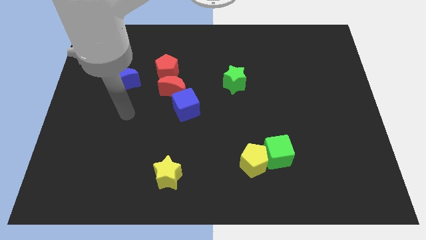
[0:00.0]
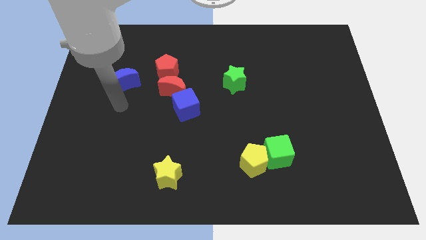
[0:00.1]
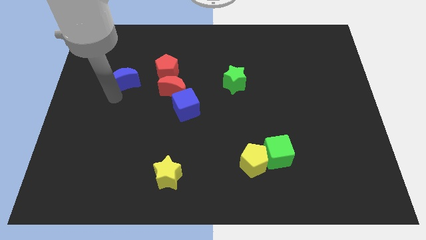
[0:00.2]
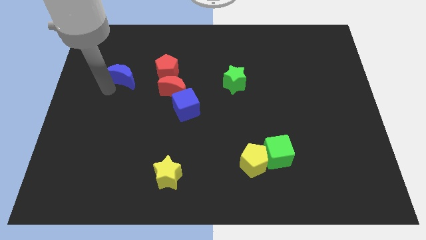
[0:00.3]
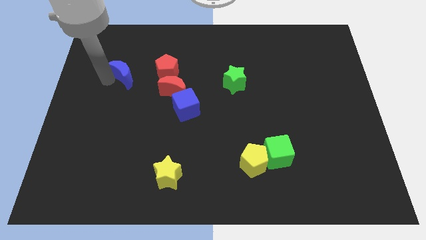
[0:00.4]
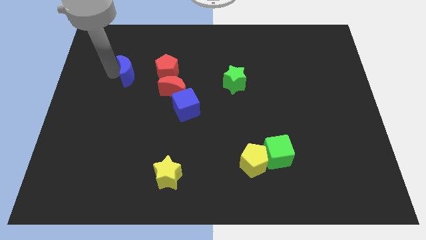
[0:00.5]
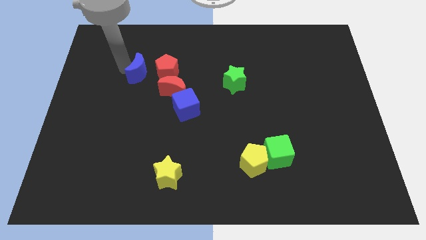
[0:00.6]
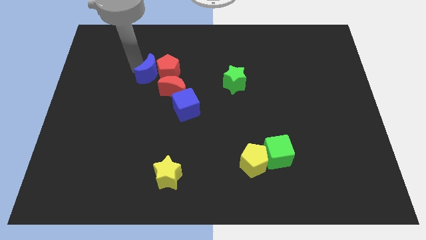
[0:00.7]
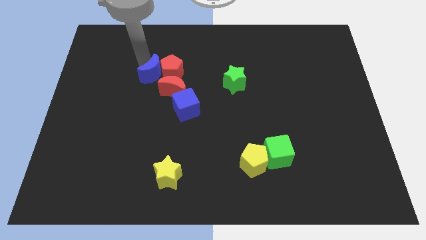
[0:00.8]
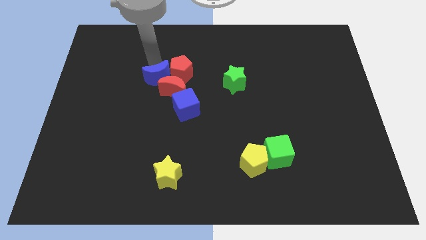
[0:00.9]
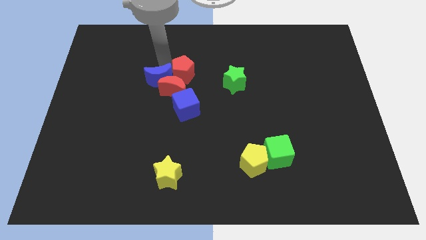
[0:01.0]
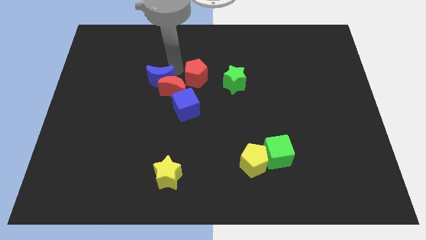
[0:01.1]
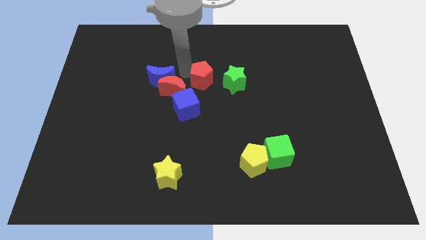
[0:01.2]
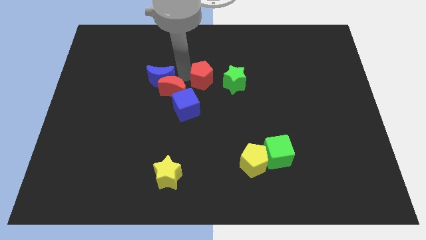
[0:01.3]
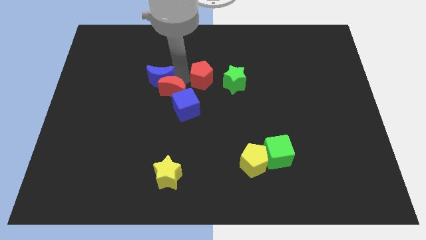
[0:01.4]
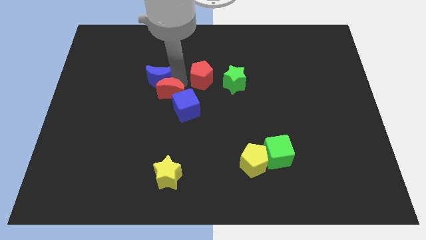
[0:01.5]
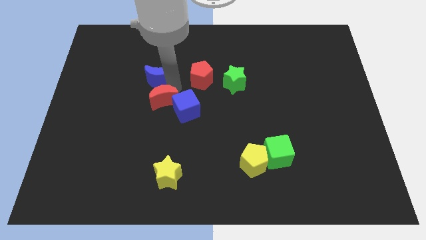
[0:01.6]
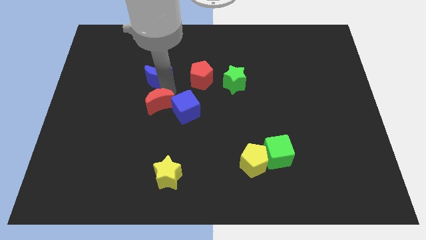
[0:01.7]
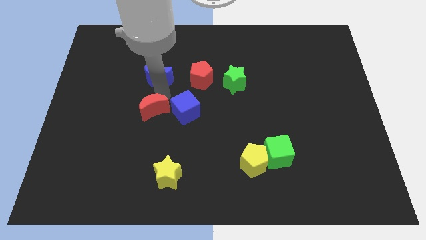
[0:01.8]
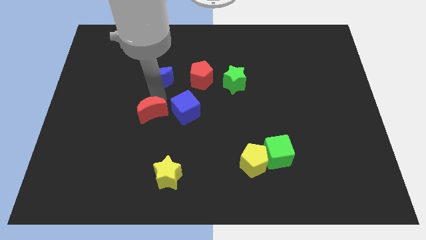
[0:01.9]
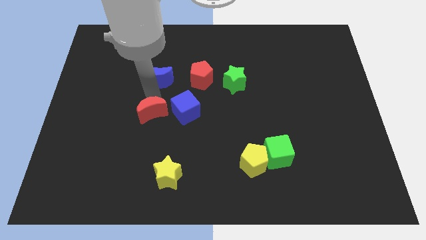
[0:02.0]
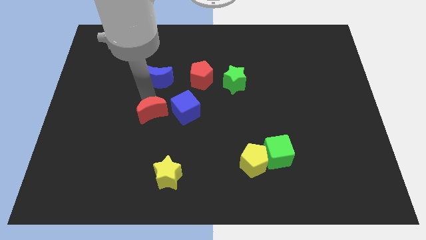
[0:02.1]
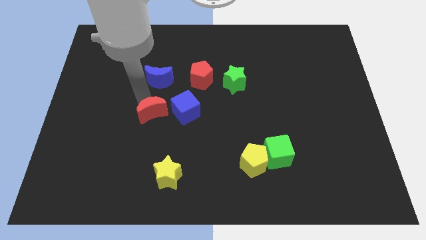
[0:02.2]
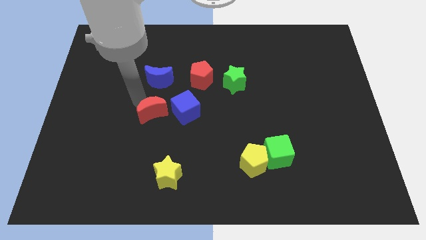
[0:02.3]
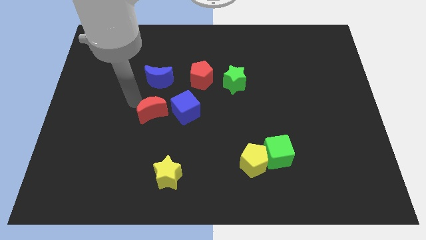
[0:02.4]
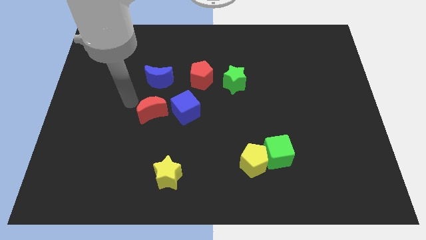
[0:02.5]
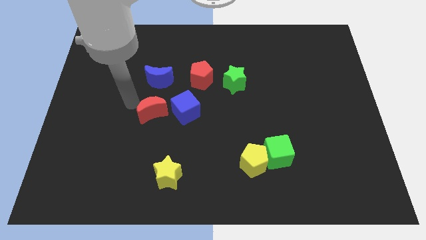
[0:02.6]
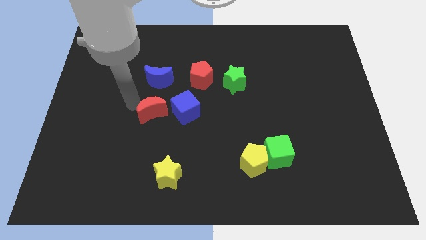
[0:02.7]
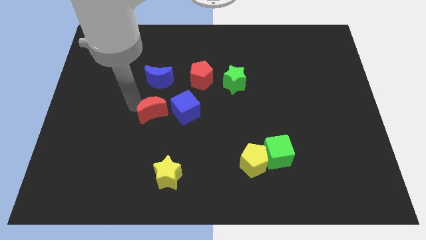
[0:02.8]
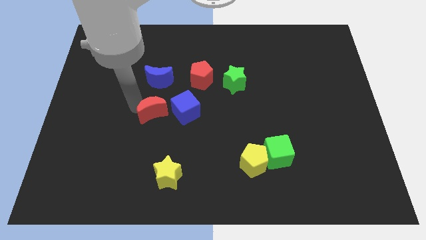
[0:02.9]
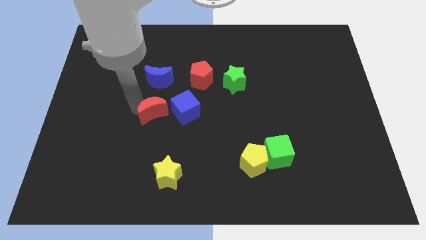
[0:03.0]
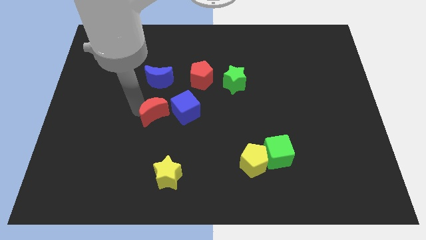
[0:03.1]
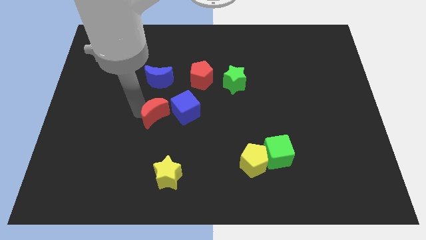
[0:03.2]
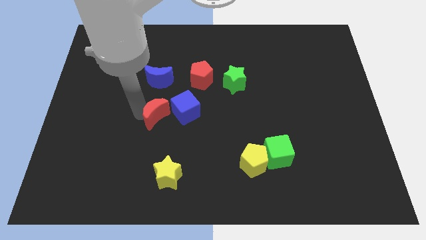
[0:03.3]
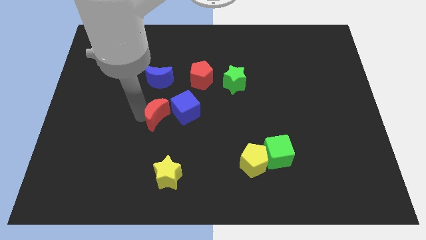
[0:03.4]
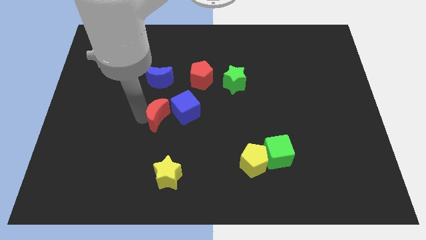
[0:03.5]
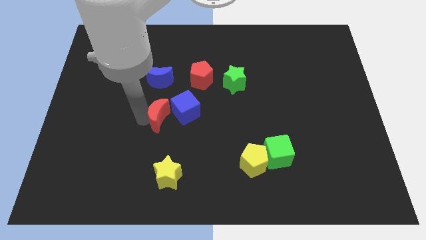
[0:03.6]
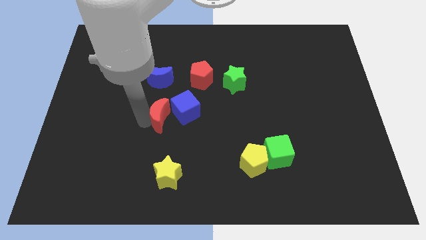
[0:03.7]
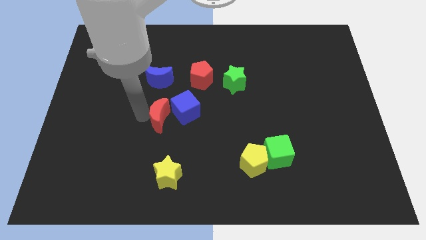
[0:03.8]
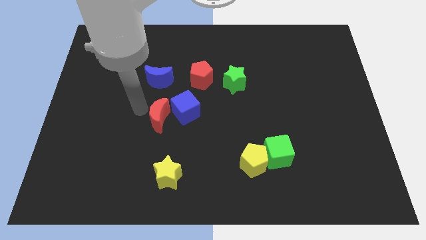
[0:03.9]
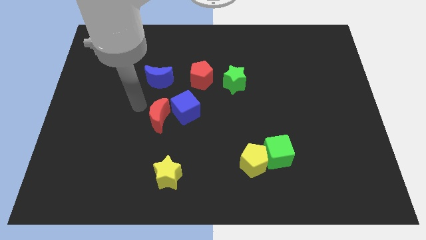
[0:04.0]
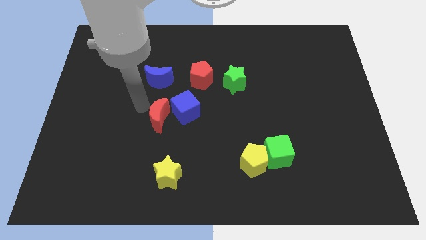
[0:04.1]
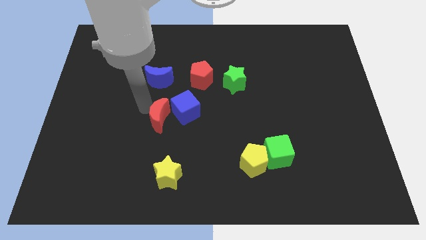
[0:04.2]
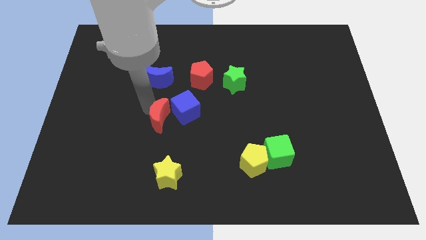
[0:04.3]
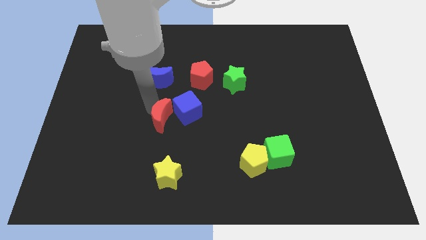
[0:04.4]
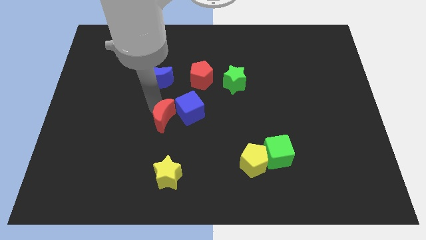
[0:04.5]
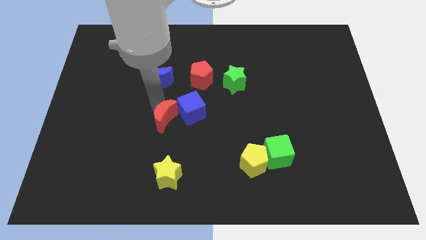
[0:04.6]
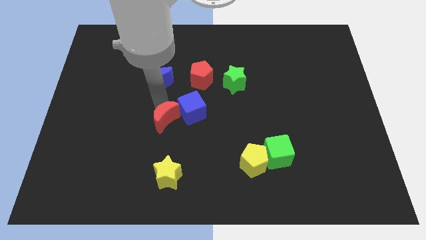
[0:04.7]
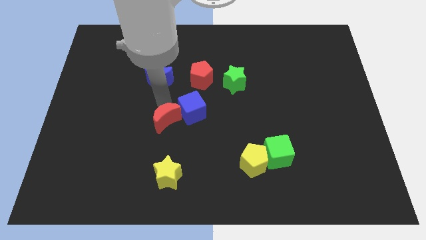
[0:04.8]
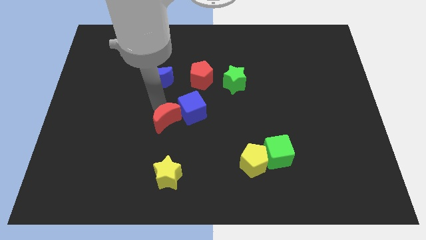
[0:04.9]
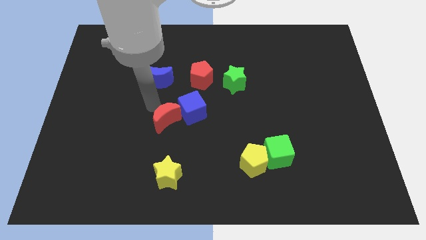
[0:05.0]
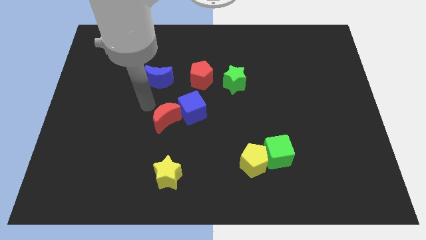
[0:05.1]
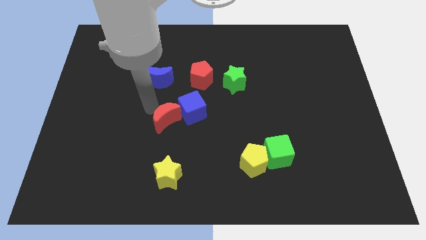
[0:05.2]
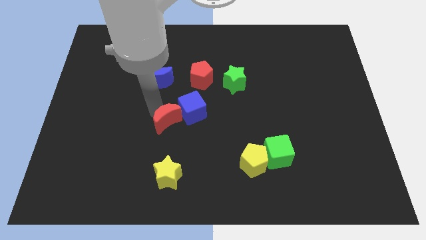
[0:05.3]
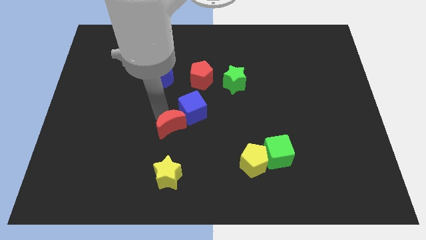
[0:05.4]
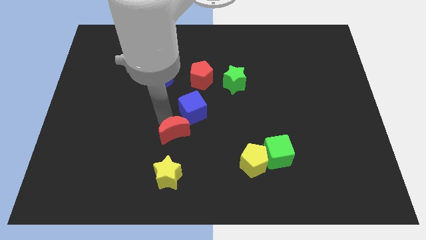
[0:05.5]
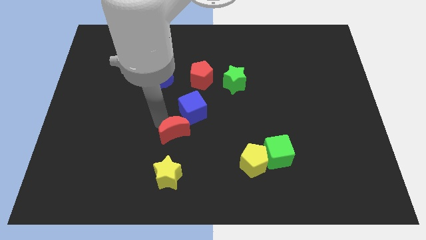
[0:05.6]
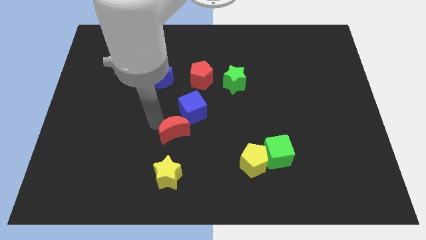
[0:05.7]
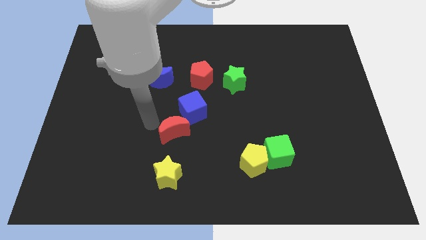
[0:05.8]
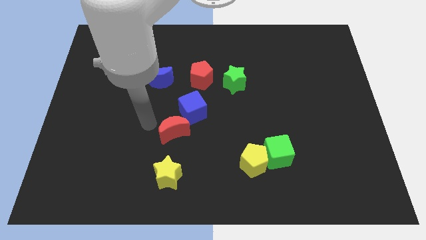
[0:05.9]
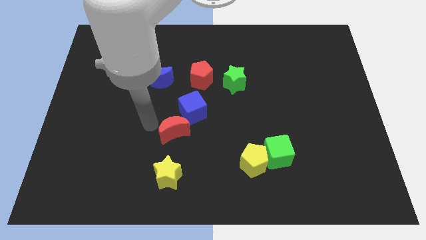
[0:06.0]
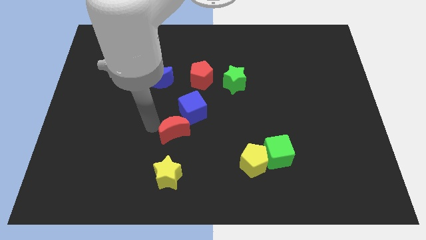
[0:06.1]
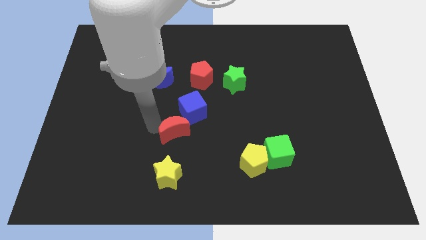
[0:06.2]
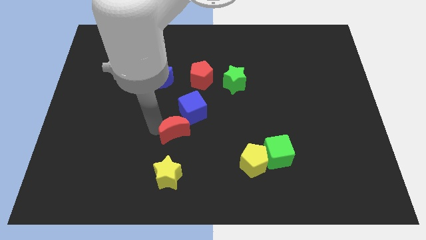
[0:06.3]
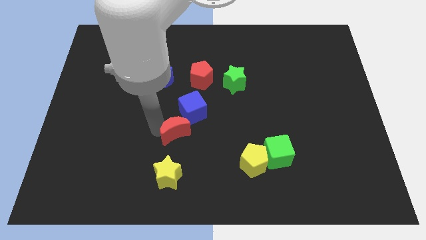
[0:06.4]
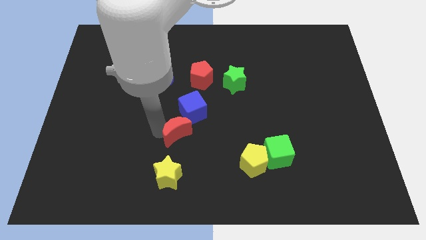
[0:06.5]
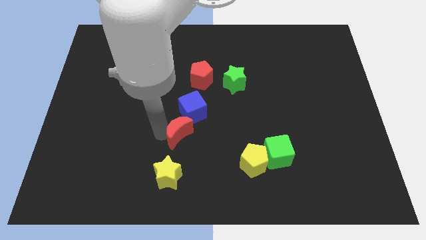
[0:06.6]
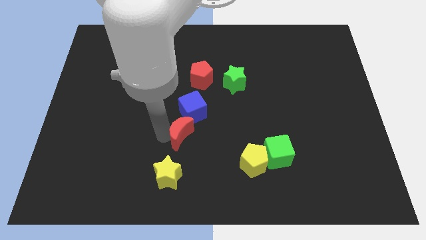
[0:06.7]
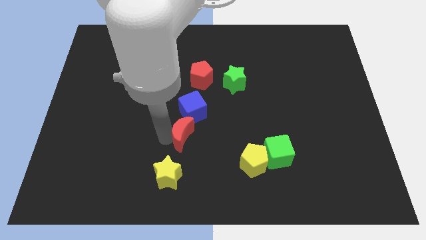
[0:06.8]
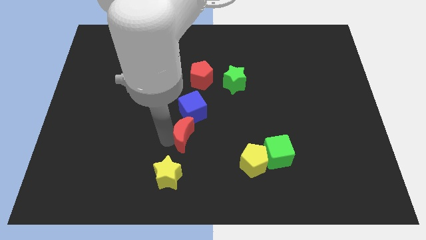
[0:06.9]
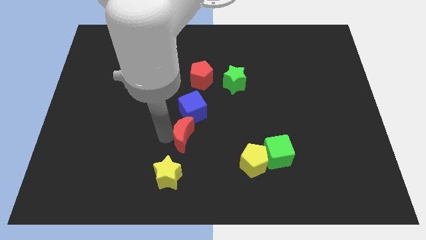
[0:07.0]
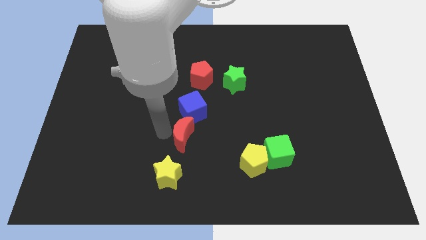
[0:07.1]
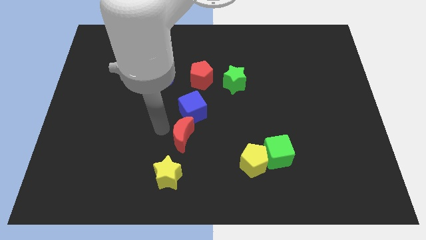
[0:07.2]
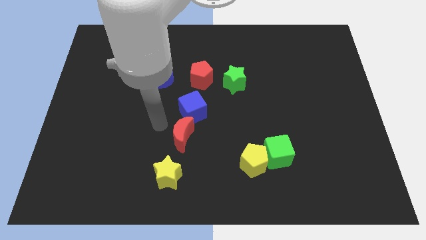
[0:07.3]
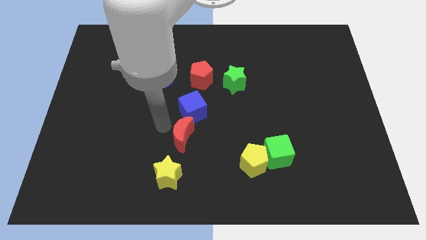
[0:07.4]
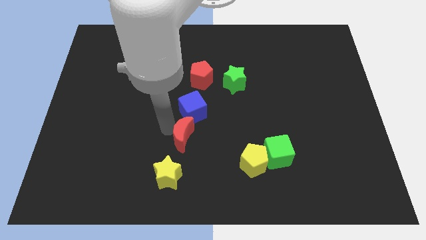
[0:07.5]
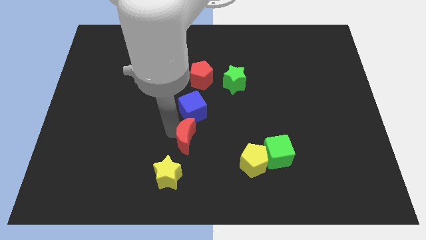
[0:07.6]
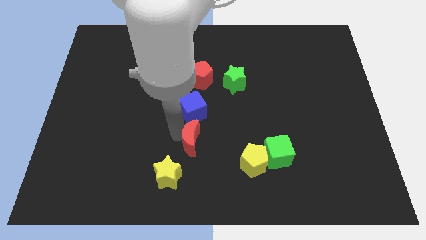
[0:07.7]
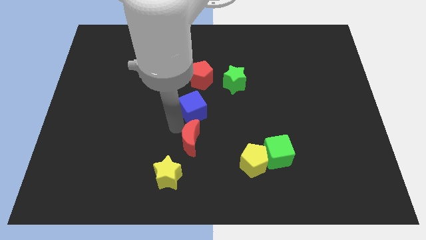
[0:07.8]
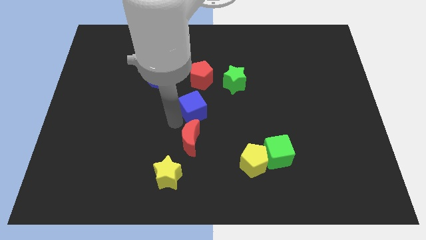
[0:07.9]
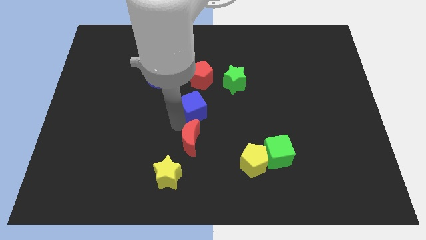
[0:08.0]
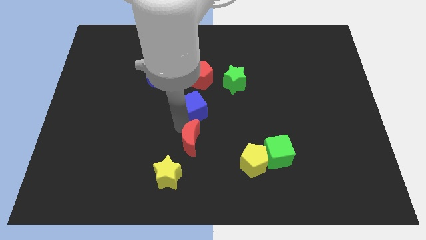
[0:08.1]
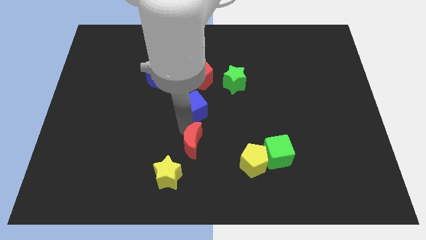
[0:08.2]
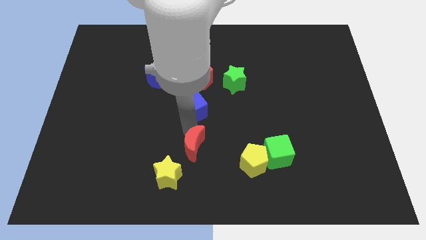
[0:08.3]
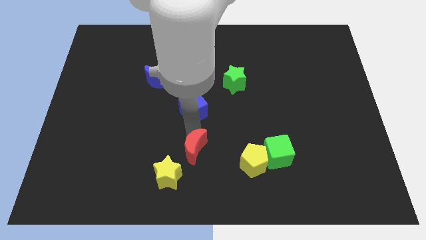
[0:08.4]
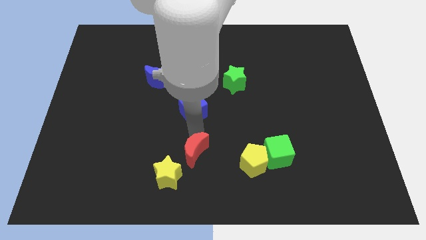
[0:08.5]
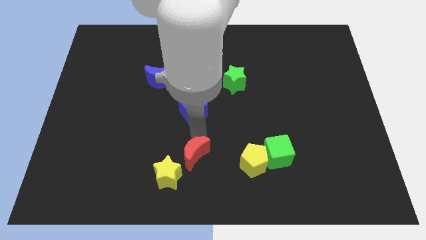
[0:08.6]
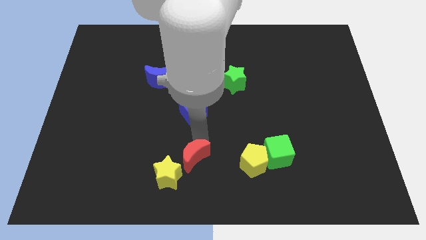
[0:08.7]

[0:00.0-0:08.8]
put the red moon to the right of the yellow star
